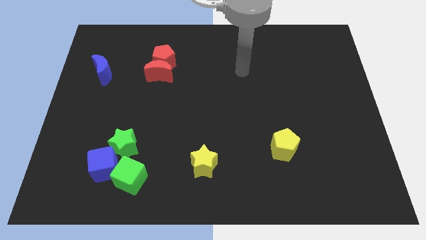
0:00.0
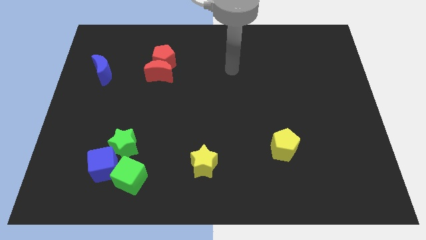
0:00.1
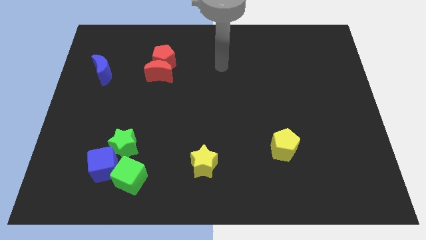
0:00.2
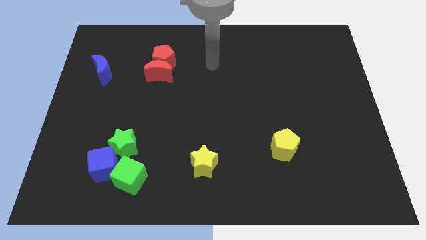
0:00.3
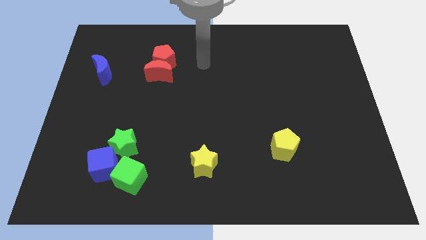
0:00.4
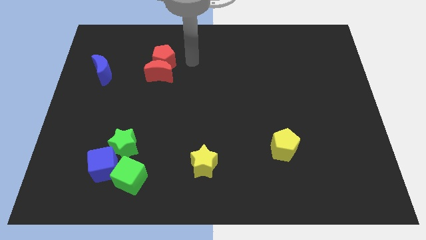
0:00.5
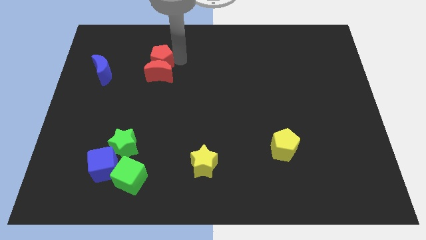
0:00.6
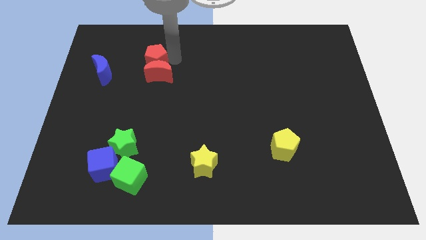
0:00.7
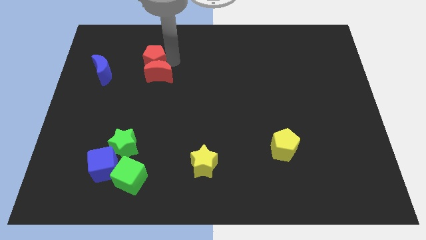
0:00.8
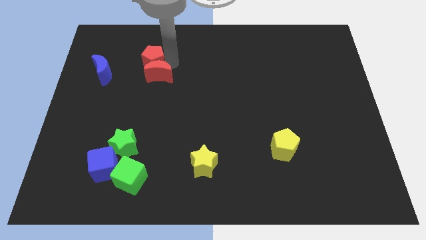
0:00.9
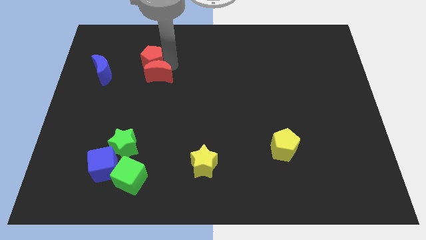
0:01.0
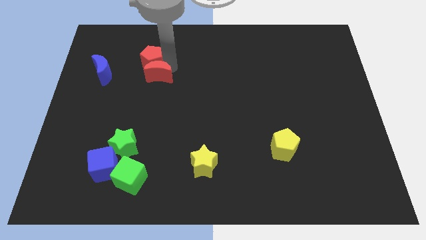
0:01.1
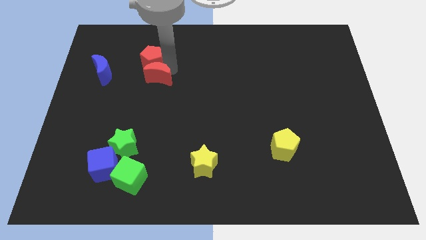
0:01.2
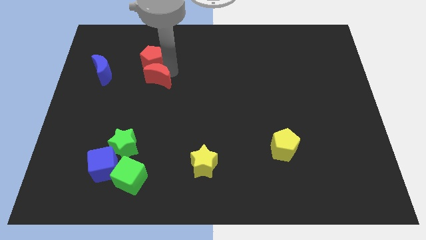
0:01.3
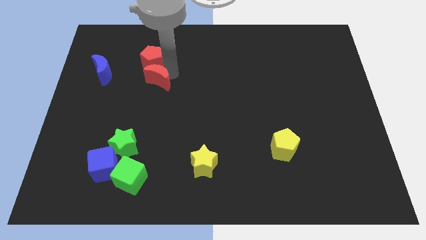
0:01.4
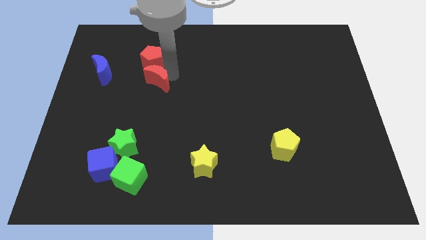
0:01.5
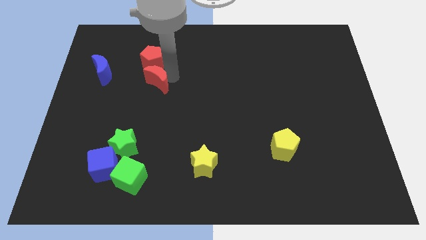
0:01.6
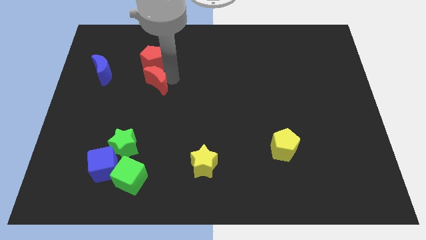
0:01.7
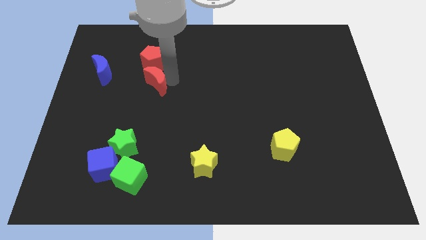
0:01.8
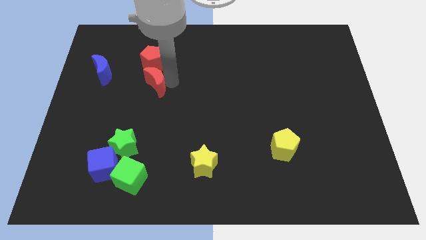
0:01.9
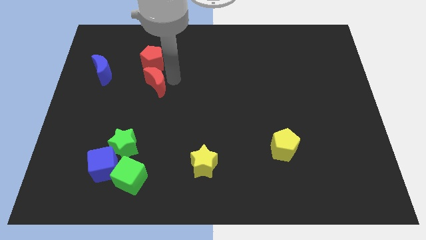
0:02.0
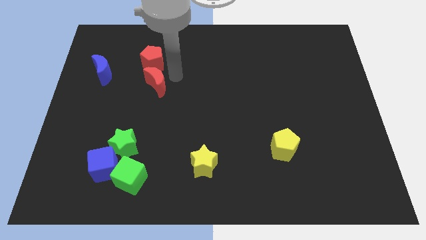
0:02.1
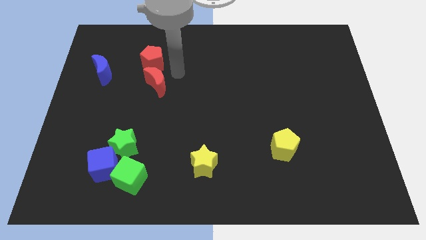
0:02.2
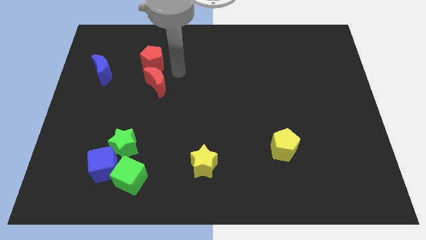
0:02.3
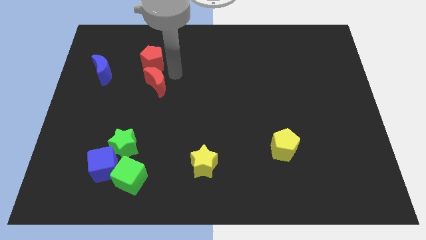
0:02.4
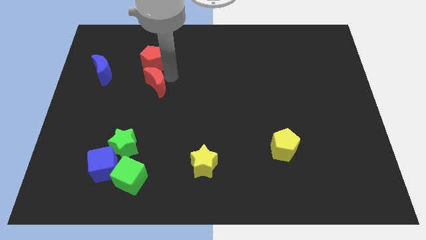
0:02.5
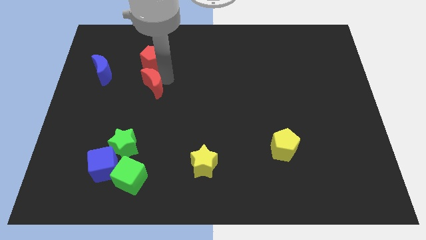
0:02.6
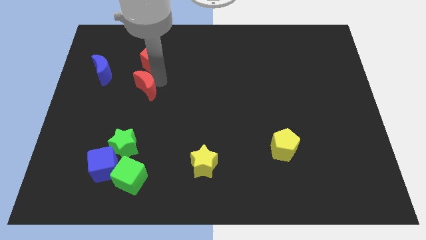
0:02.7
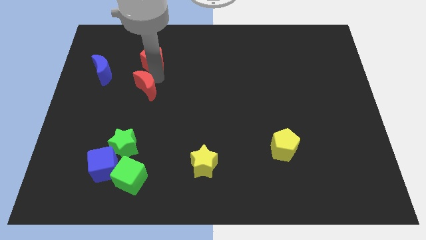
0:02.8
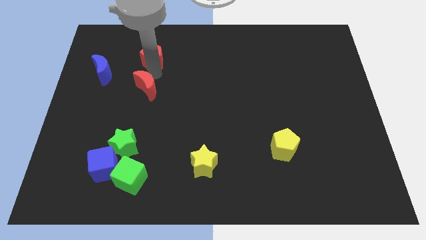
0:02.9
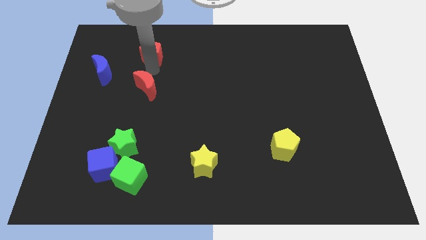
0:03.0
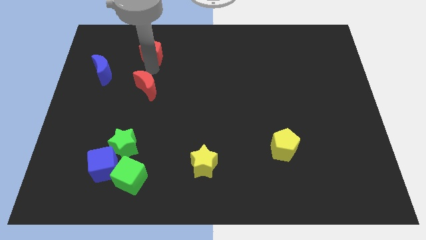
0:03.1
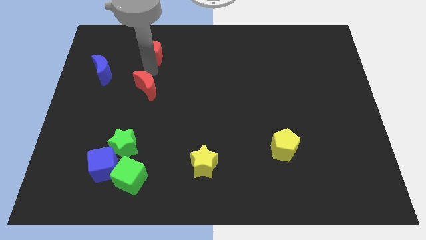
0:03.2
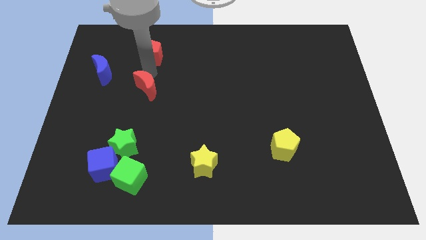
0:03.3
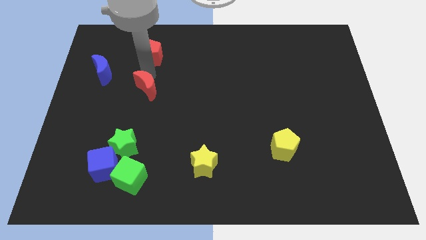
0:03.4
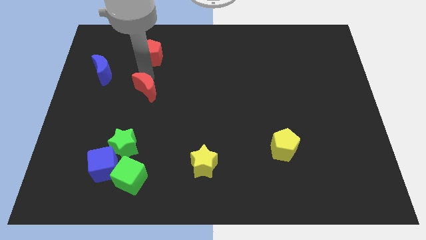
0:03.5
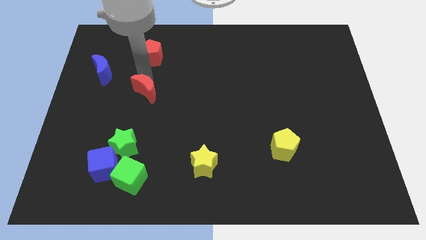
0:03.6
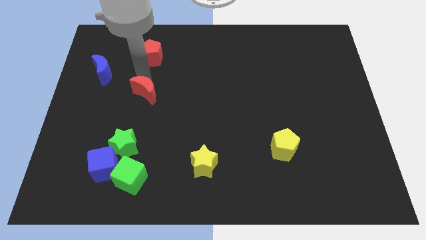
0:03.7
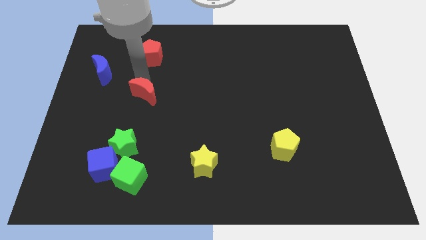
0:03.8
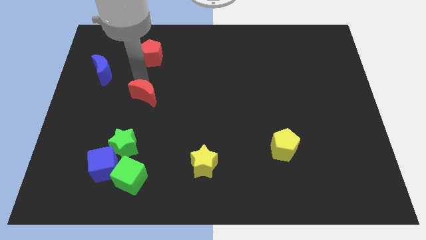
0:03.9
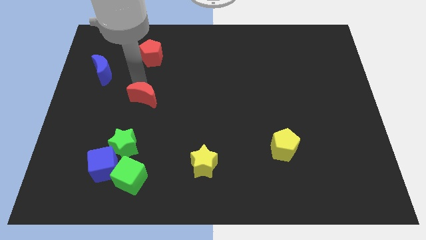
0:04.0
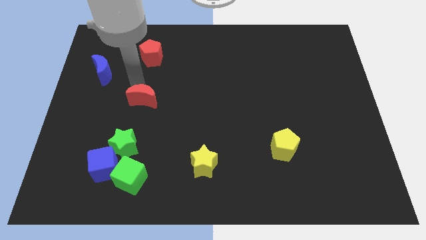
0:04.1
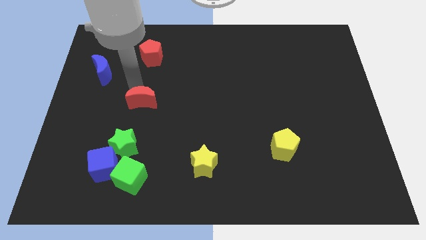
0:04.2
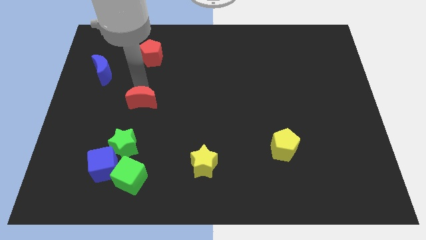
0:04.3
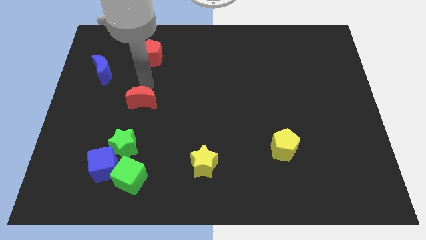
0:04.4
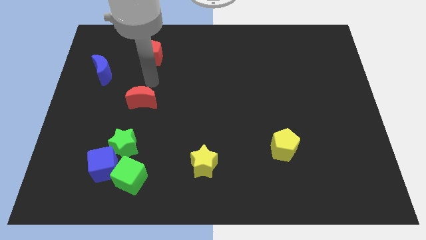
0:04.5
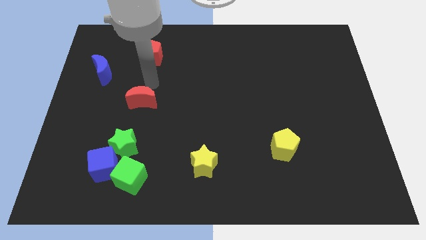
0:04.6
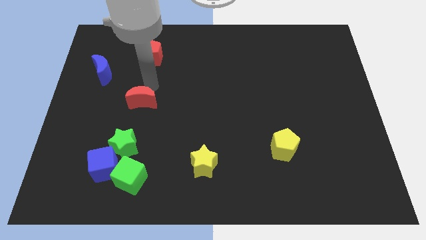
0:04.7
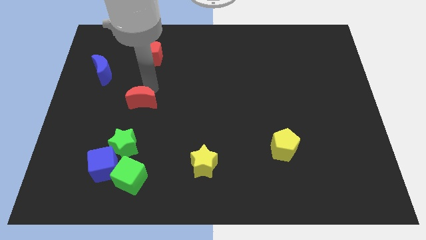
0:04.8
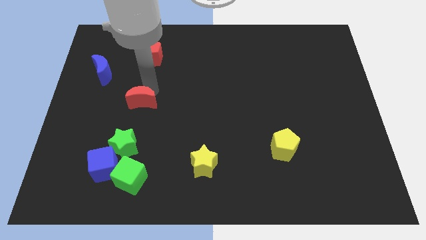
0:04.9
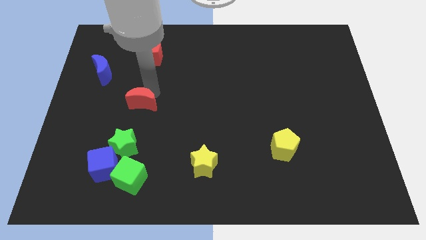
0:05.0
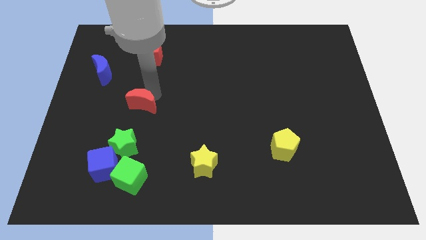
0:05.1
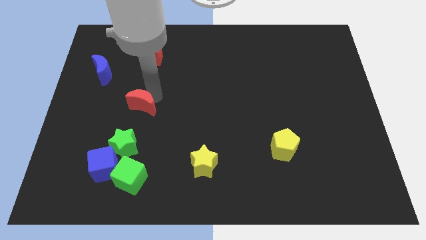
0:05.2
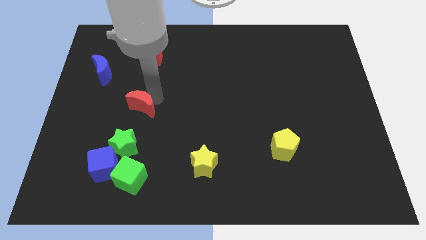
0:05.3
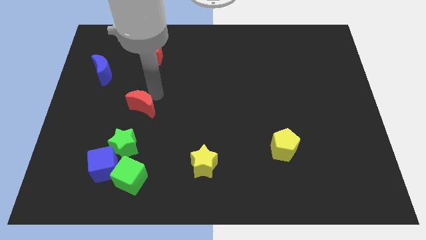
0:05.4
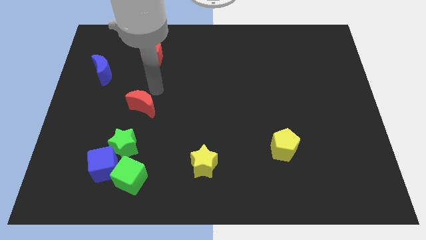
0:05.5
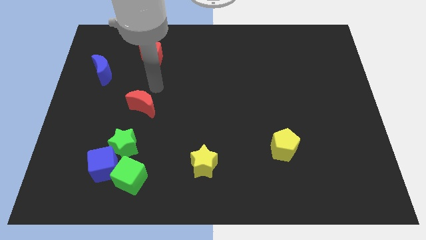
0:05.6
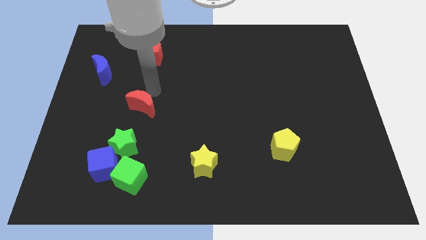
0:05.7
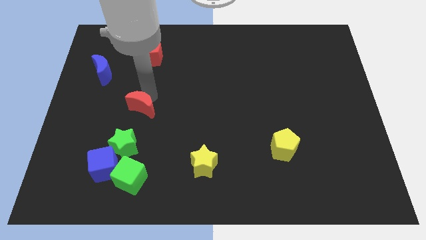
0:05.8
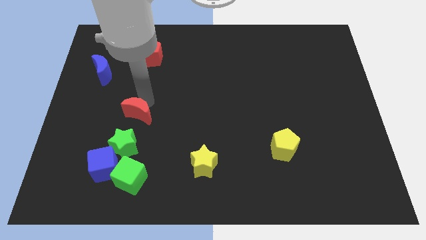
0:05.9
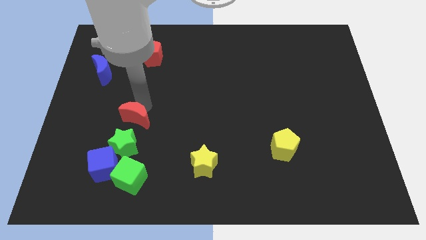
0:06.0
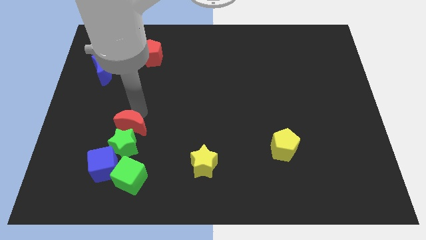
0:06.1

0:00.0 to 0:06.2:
push the red moon to the green star
